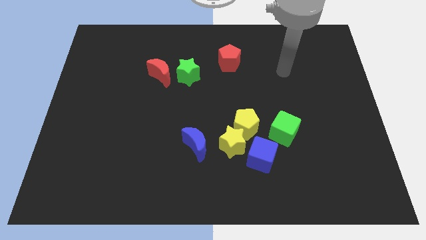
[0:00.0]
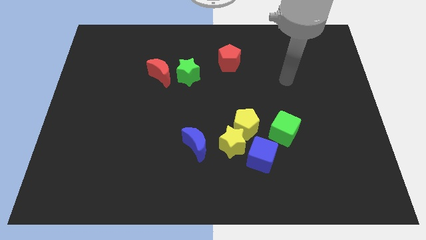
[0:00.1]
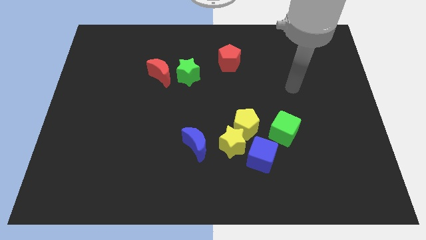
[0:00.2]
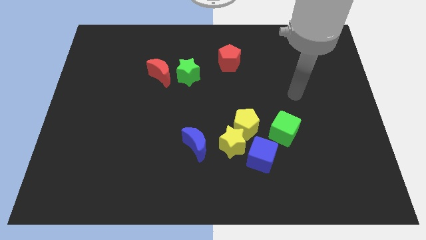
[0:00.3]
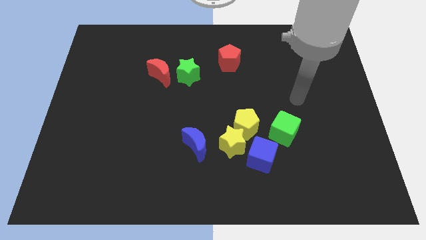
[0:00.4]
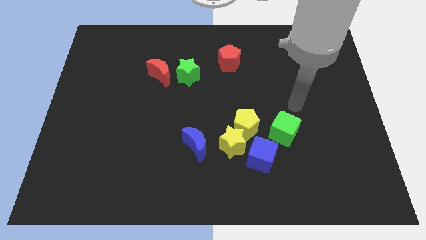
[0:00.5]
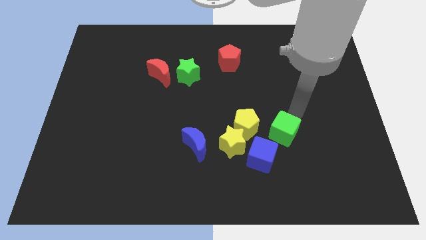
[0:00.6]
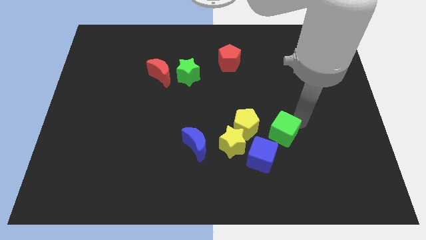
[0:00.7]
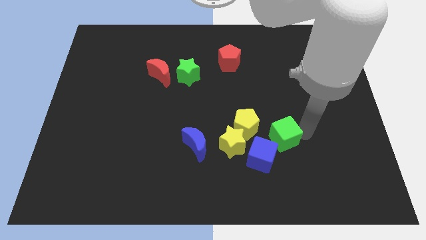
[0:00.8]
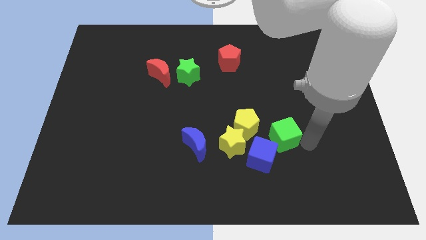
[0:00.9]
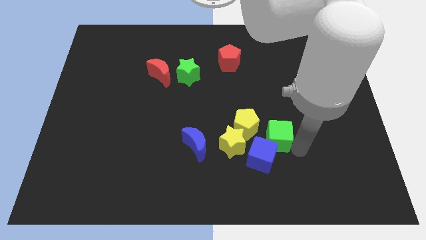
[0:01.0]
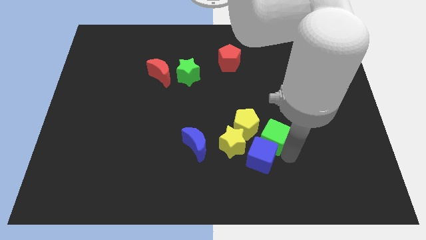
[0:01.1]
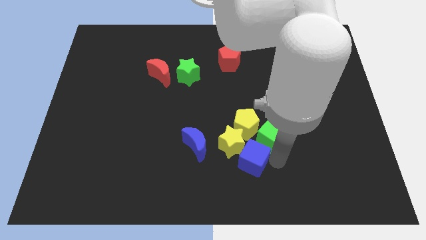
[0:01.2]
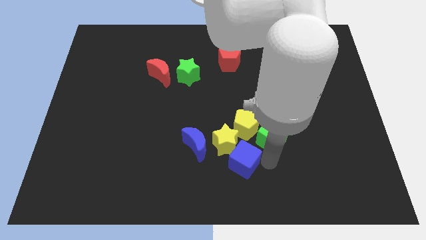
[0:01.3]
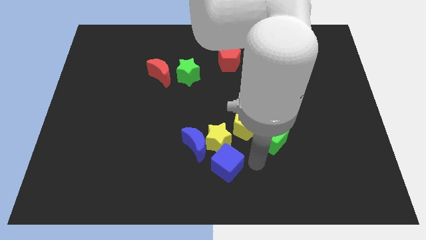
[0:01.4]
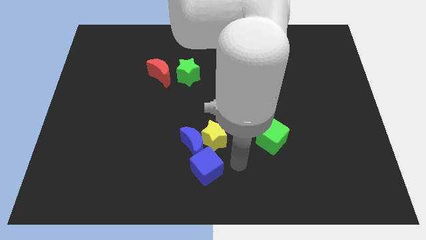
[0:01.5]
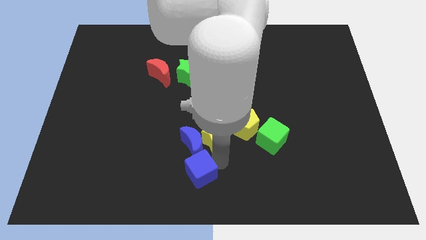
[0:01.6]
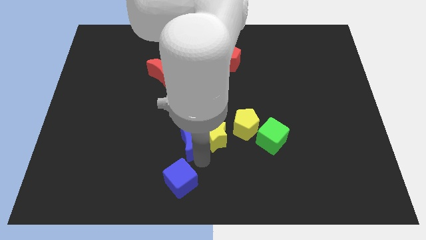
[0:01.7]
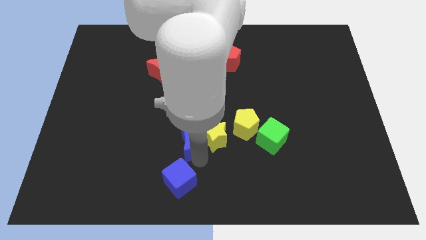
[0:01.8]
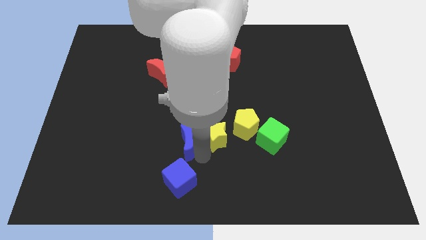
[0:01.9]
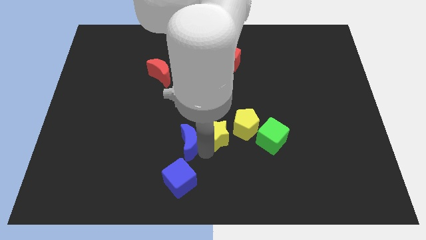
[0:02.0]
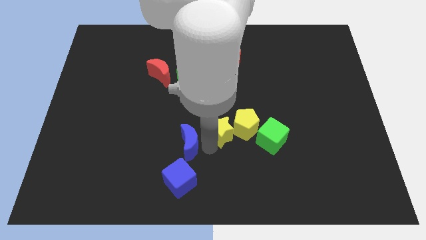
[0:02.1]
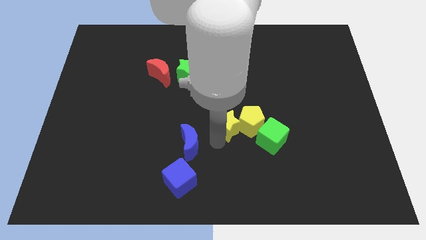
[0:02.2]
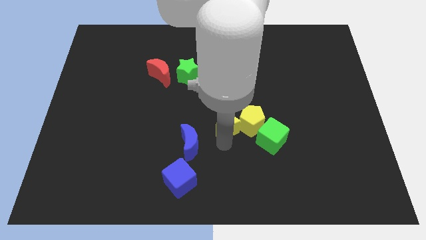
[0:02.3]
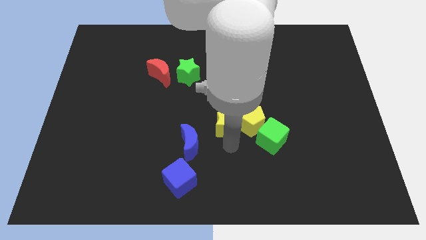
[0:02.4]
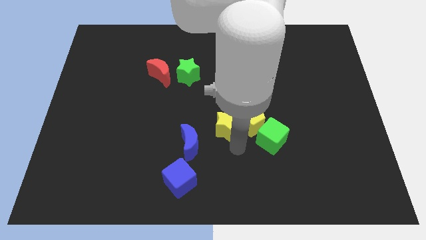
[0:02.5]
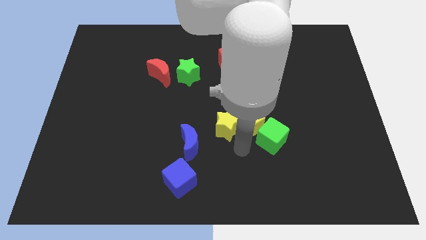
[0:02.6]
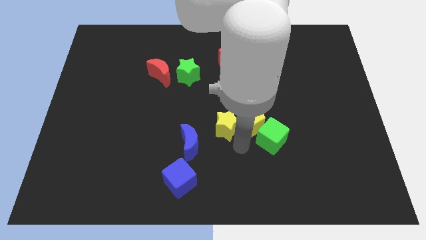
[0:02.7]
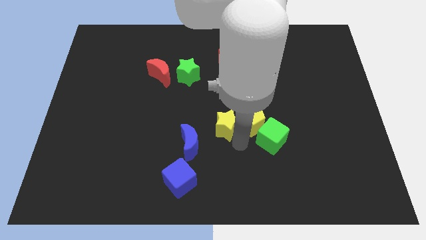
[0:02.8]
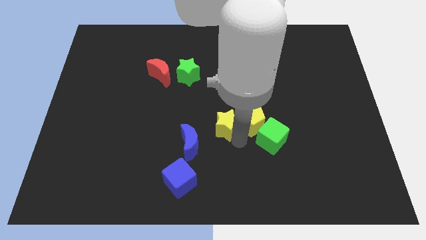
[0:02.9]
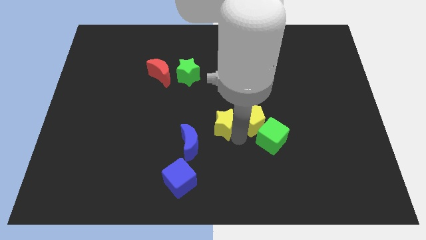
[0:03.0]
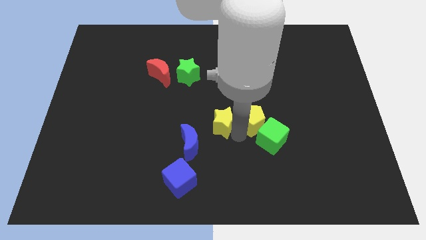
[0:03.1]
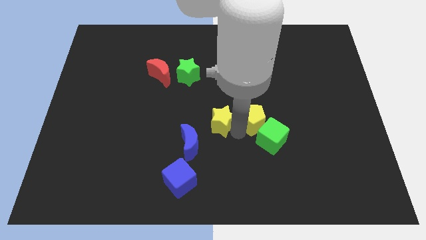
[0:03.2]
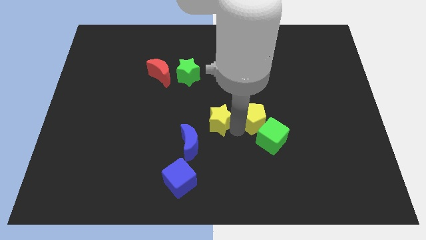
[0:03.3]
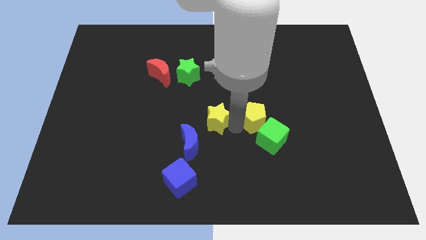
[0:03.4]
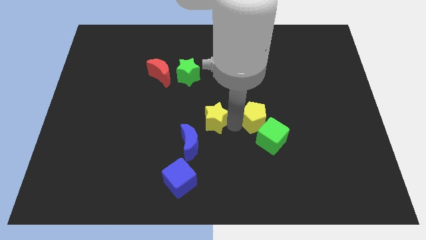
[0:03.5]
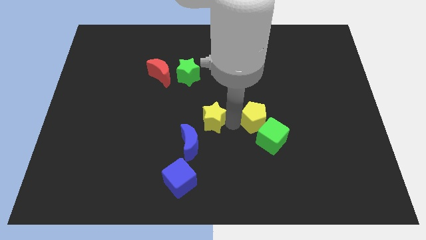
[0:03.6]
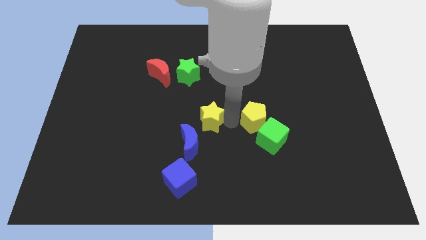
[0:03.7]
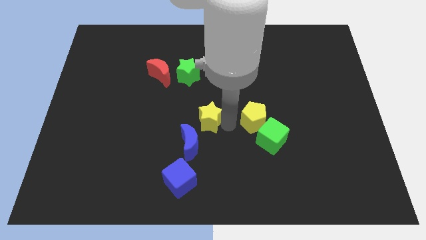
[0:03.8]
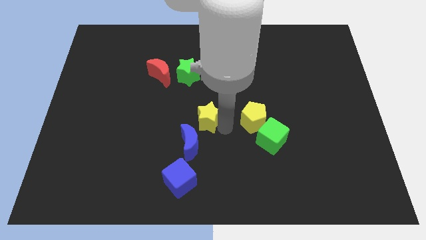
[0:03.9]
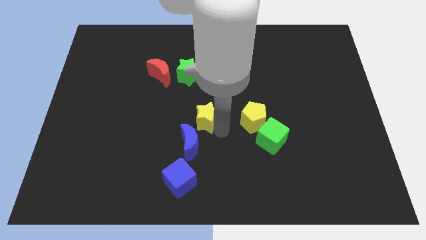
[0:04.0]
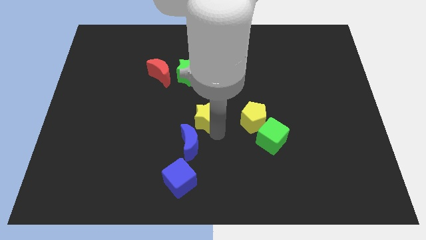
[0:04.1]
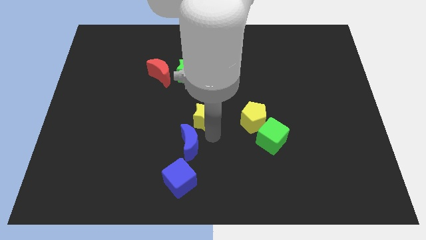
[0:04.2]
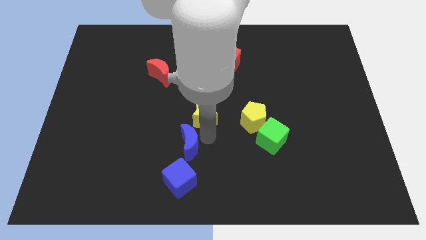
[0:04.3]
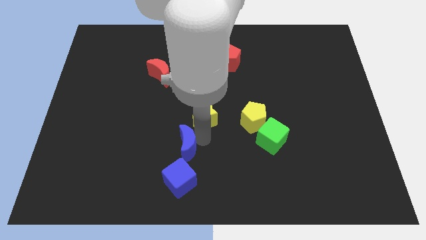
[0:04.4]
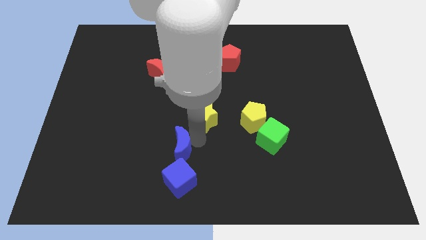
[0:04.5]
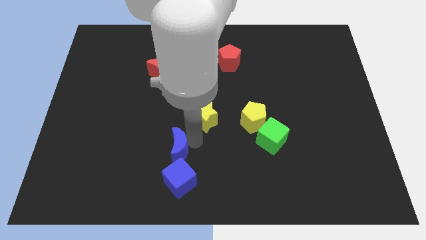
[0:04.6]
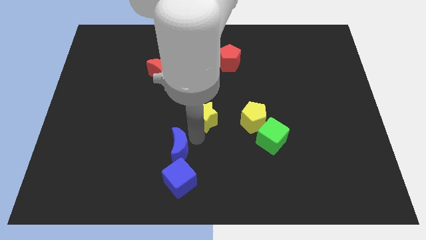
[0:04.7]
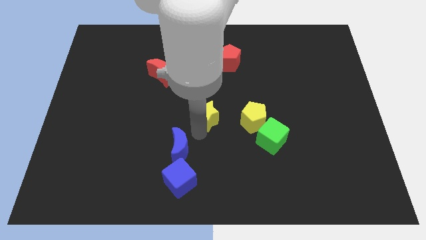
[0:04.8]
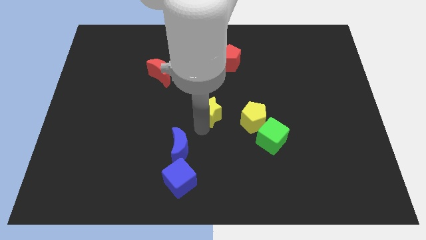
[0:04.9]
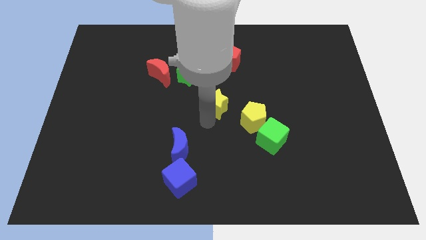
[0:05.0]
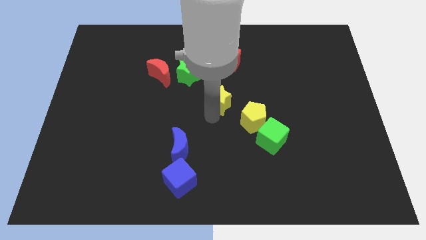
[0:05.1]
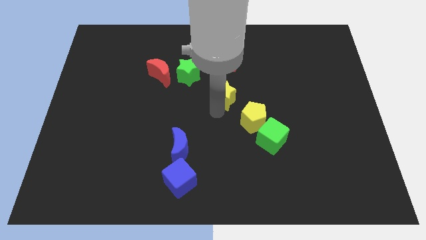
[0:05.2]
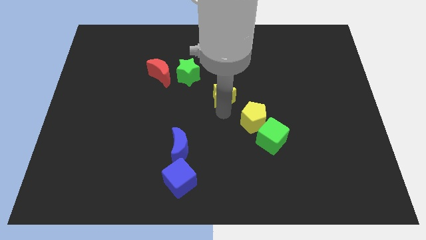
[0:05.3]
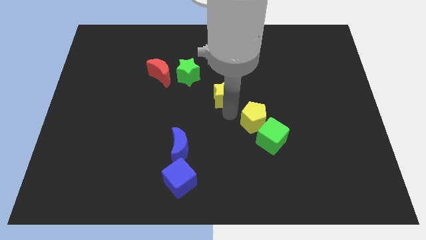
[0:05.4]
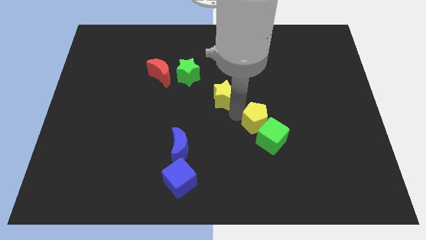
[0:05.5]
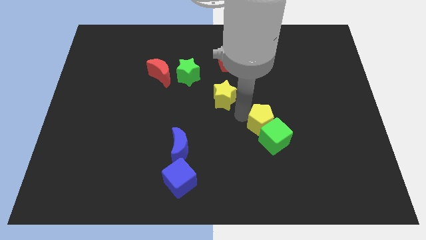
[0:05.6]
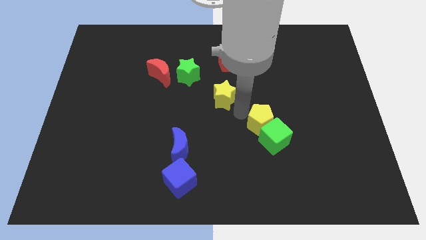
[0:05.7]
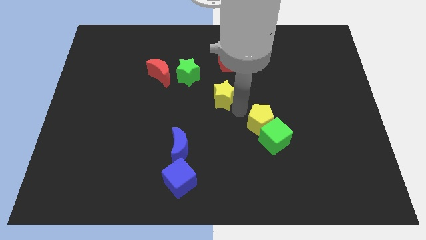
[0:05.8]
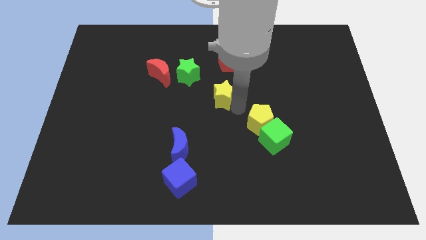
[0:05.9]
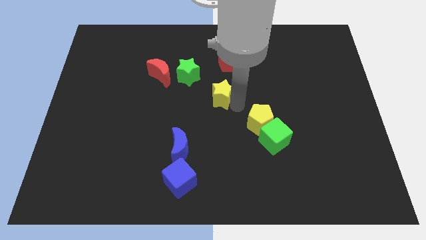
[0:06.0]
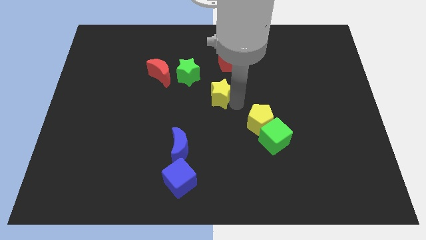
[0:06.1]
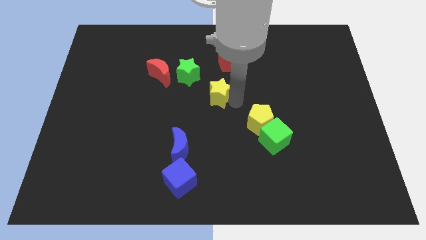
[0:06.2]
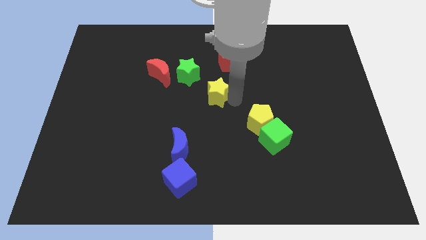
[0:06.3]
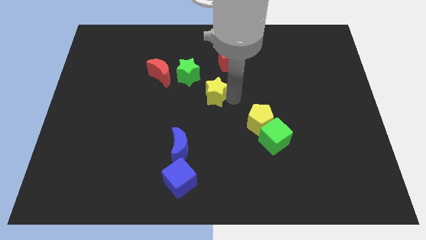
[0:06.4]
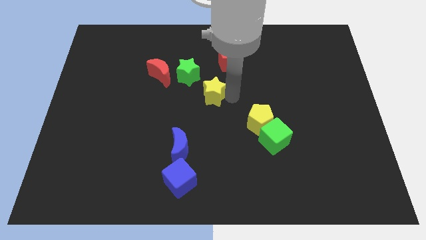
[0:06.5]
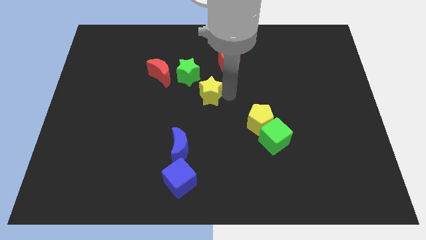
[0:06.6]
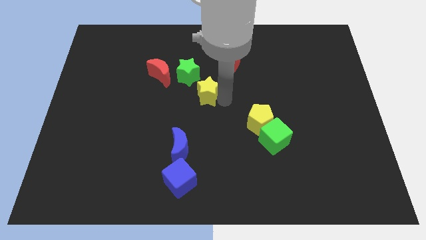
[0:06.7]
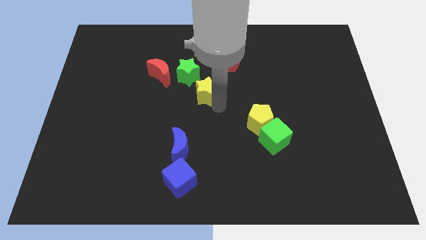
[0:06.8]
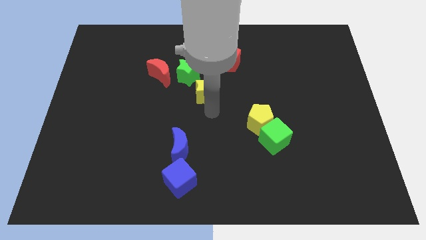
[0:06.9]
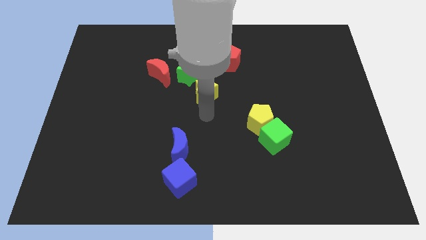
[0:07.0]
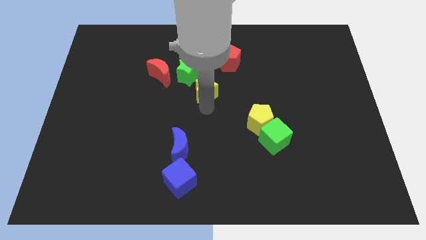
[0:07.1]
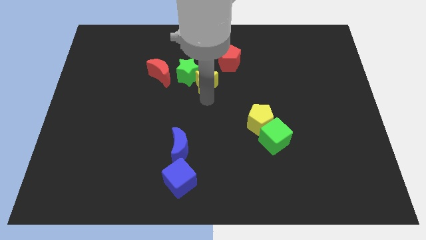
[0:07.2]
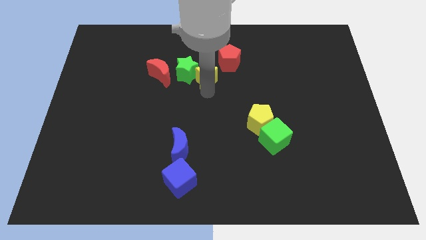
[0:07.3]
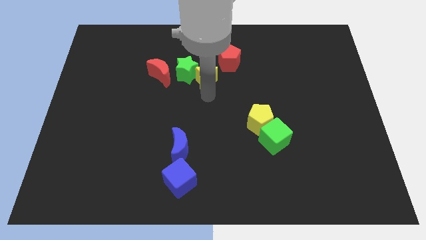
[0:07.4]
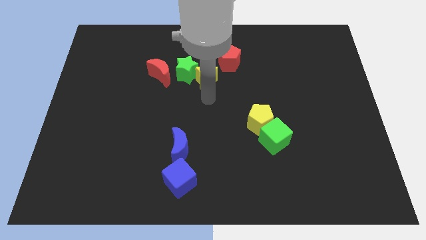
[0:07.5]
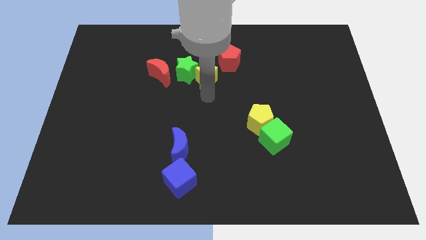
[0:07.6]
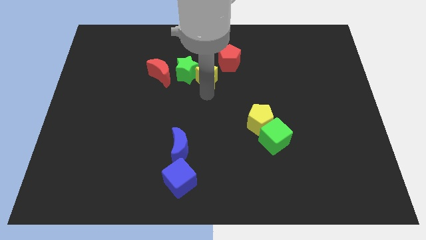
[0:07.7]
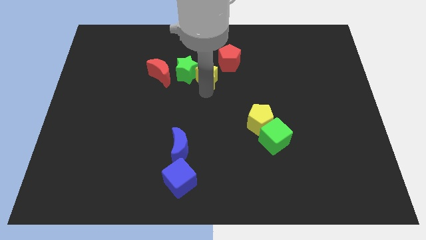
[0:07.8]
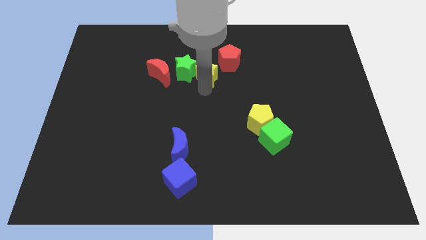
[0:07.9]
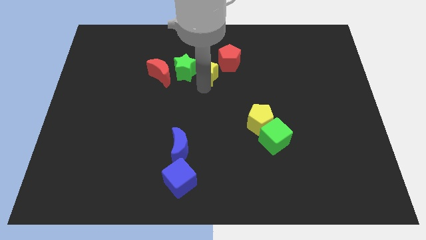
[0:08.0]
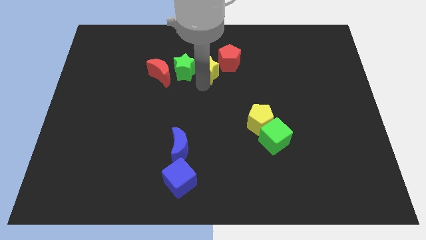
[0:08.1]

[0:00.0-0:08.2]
move the yellow star to the top right of the green star
